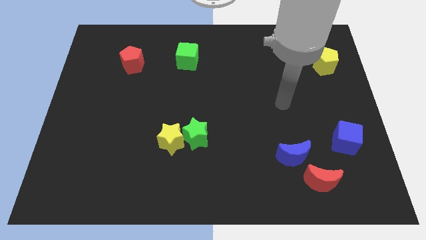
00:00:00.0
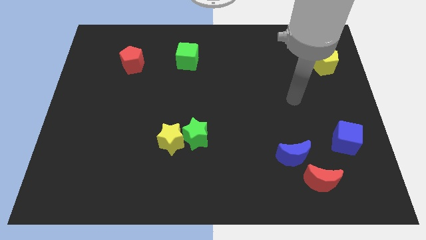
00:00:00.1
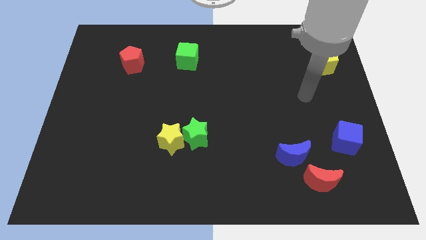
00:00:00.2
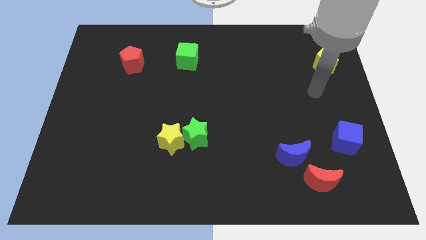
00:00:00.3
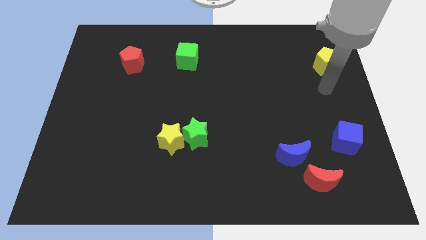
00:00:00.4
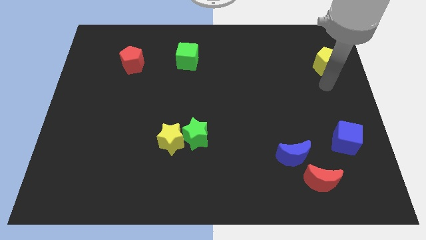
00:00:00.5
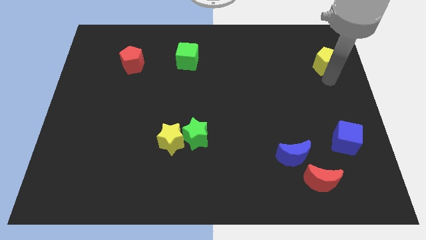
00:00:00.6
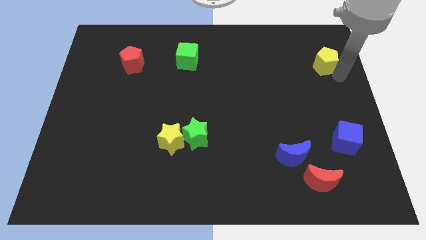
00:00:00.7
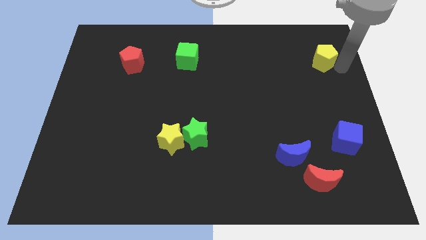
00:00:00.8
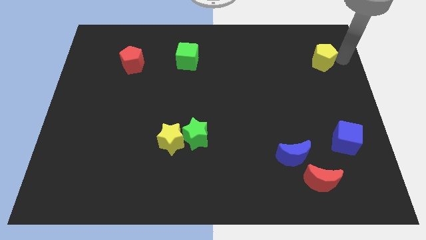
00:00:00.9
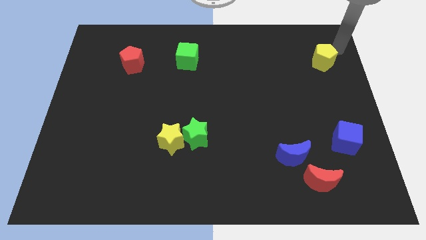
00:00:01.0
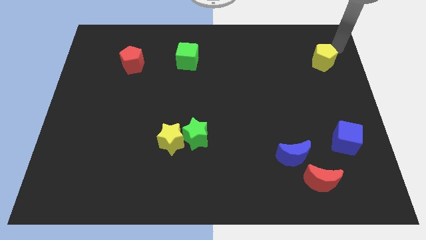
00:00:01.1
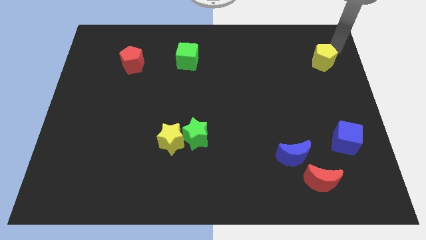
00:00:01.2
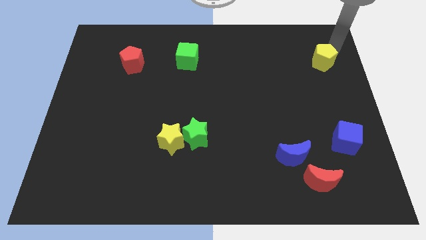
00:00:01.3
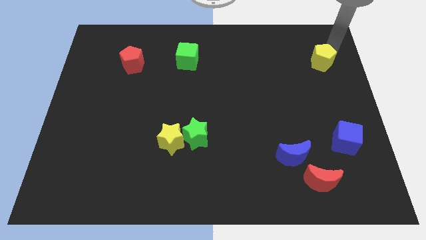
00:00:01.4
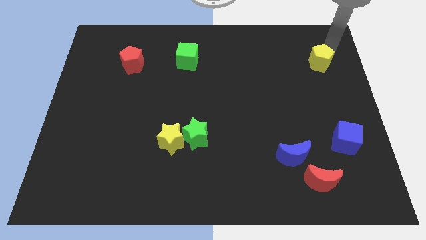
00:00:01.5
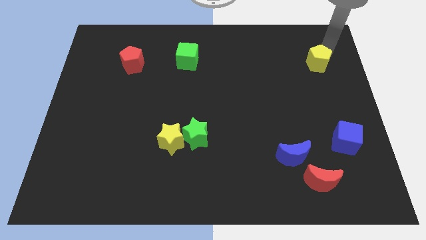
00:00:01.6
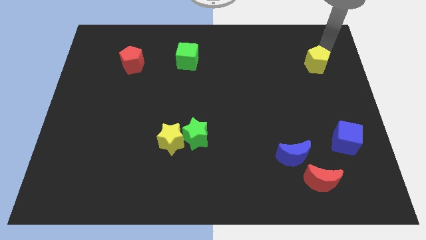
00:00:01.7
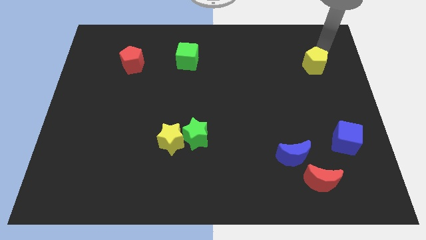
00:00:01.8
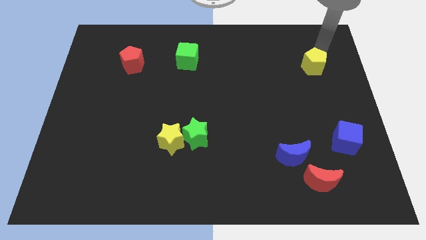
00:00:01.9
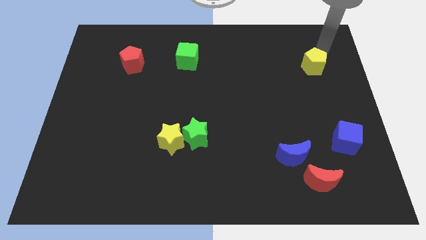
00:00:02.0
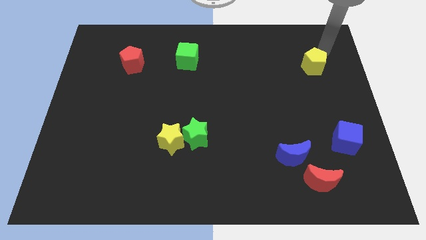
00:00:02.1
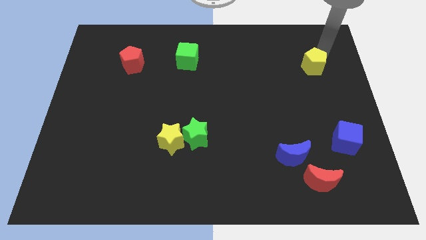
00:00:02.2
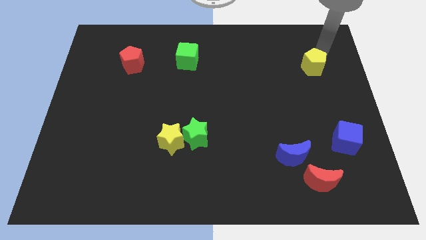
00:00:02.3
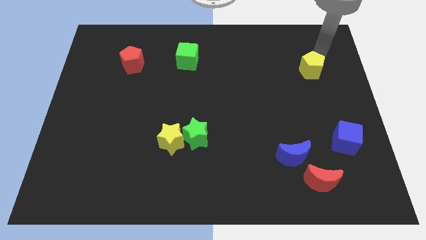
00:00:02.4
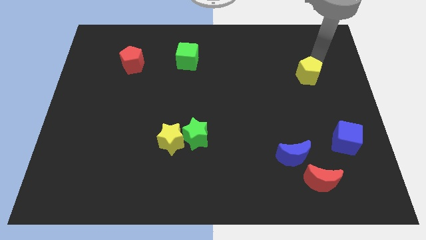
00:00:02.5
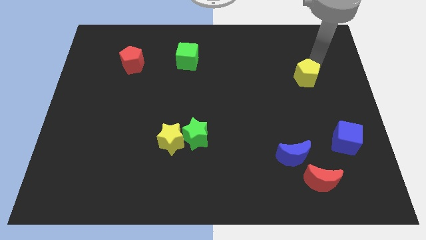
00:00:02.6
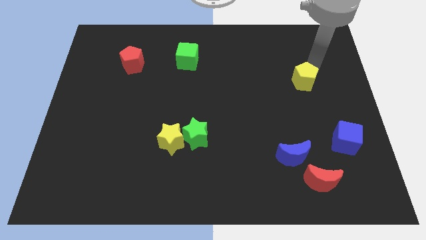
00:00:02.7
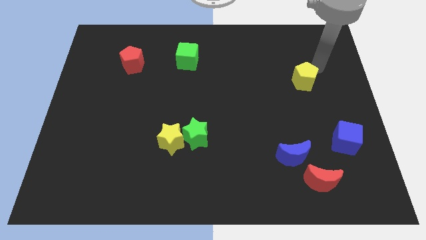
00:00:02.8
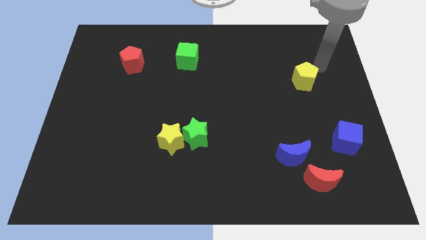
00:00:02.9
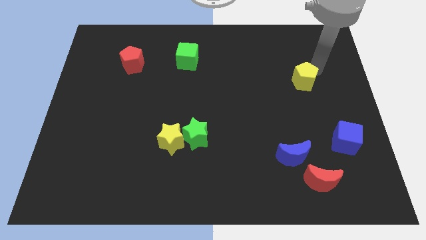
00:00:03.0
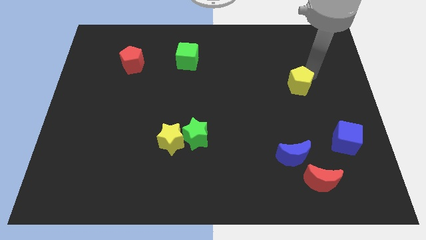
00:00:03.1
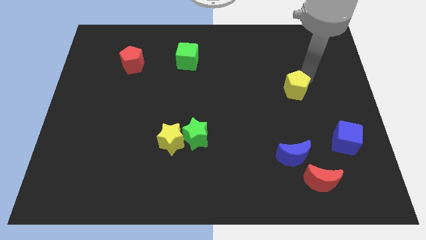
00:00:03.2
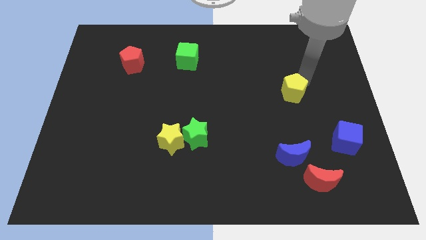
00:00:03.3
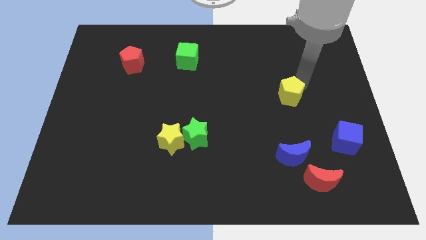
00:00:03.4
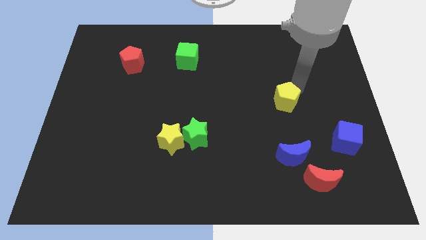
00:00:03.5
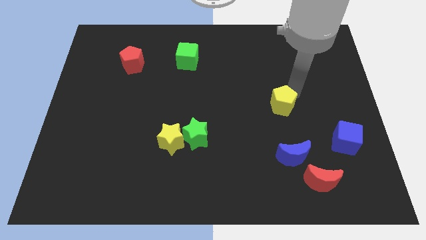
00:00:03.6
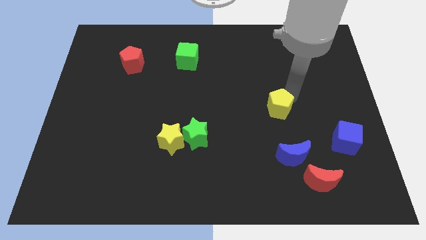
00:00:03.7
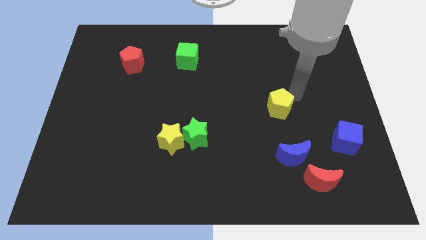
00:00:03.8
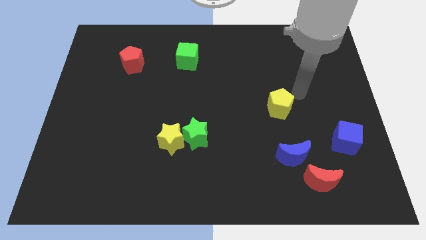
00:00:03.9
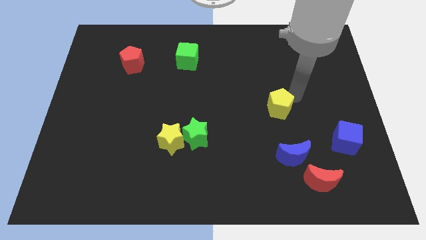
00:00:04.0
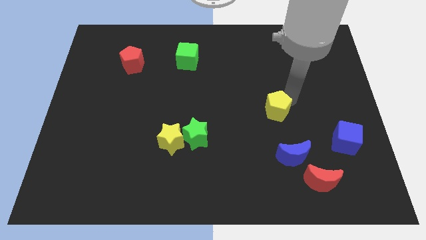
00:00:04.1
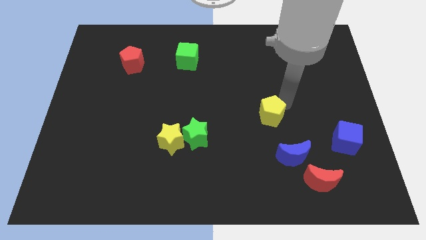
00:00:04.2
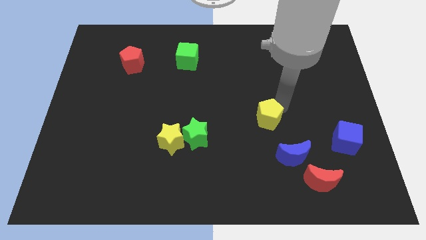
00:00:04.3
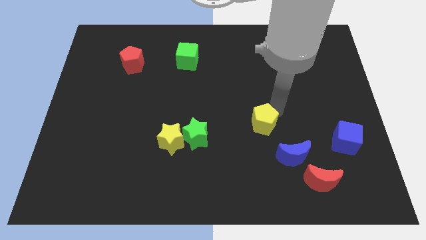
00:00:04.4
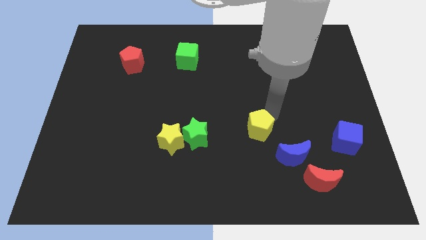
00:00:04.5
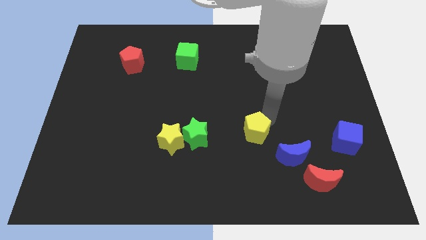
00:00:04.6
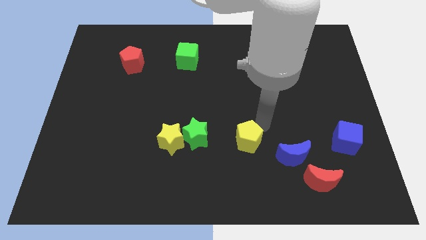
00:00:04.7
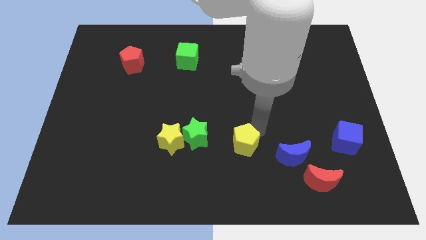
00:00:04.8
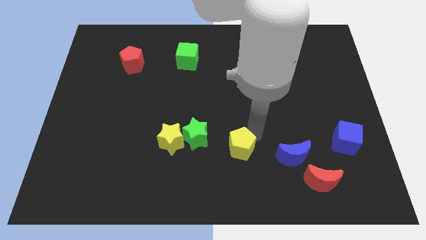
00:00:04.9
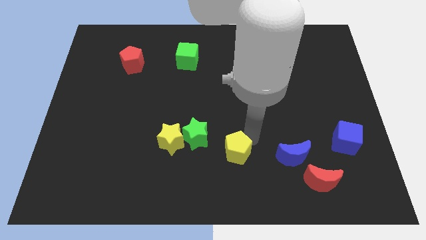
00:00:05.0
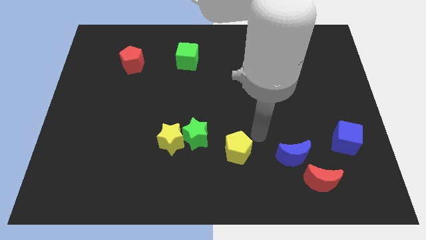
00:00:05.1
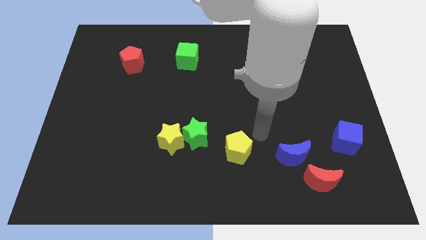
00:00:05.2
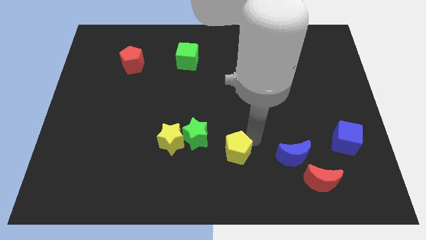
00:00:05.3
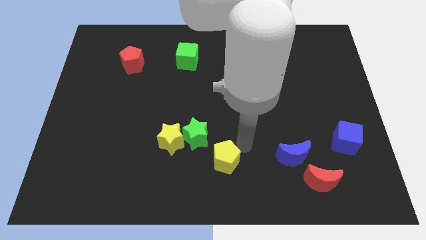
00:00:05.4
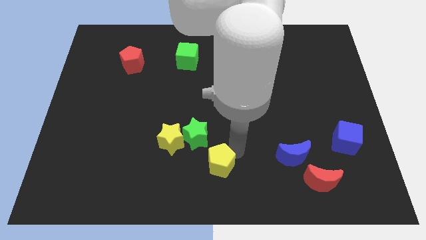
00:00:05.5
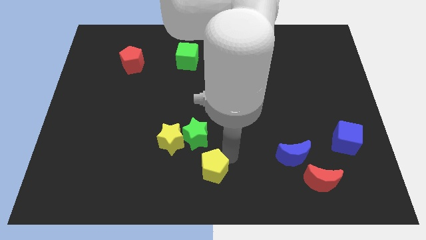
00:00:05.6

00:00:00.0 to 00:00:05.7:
push the yellow pentagon to the bottom side of the green star

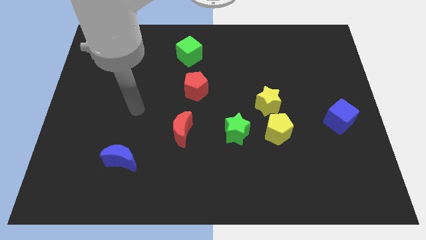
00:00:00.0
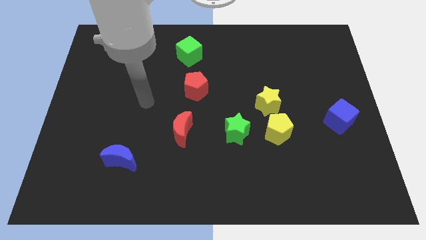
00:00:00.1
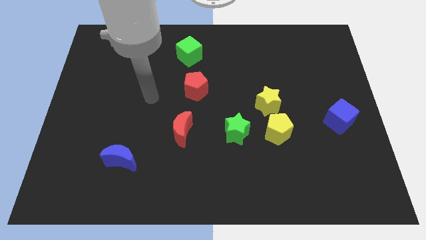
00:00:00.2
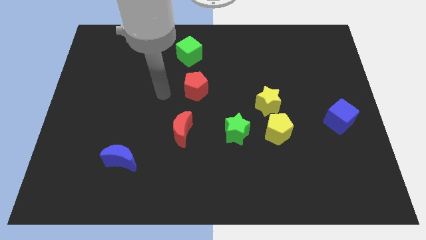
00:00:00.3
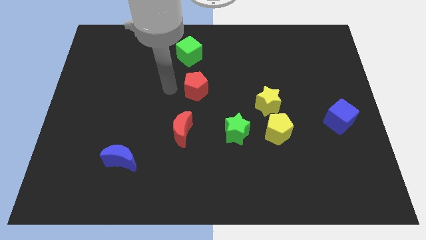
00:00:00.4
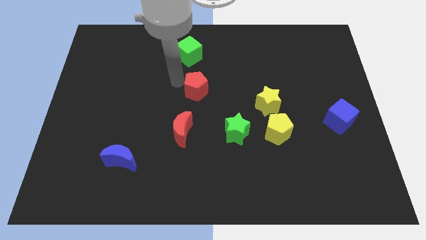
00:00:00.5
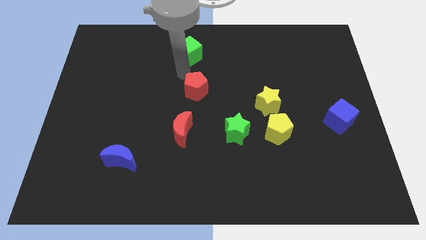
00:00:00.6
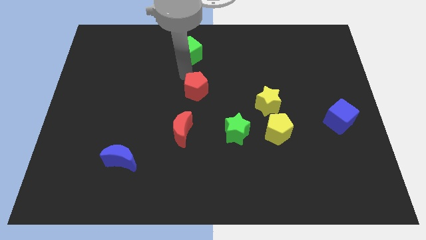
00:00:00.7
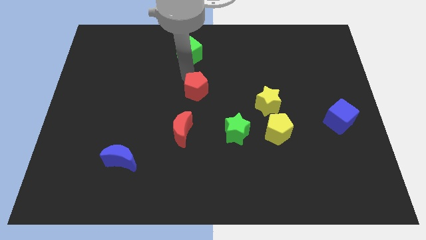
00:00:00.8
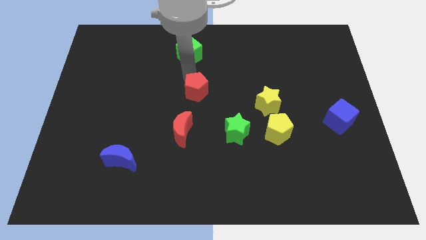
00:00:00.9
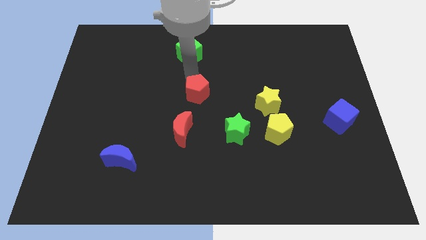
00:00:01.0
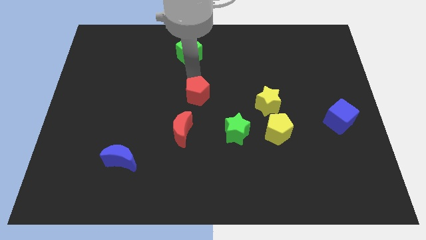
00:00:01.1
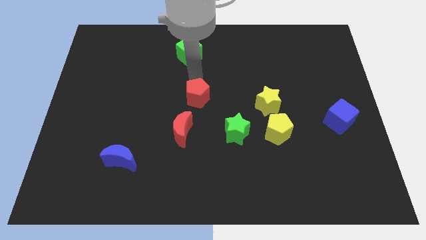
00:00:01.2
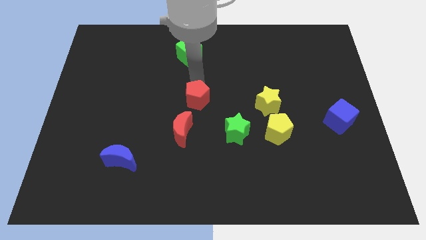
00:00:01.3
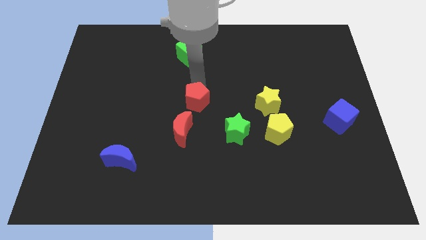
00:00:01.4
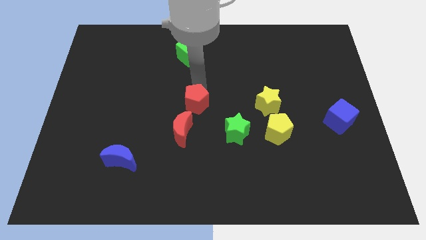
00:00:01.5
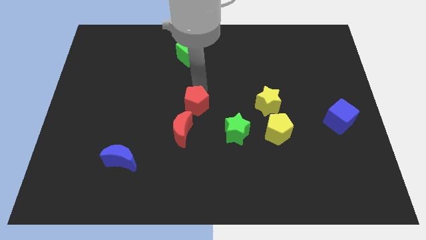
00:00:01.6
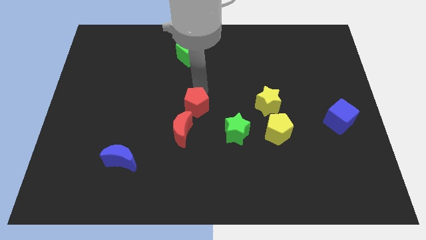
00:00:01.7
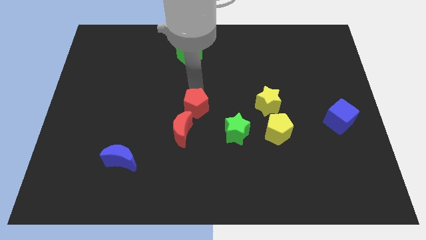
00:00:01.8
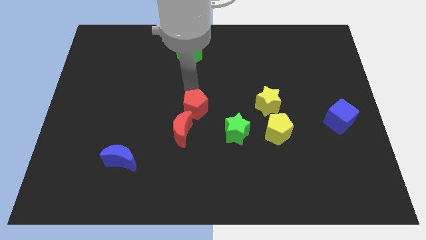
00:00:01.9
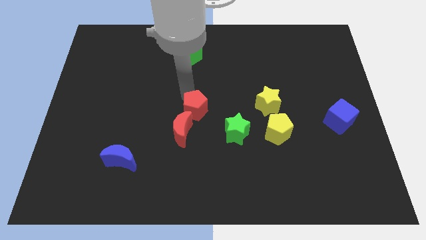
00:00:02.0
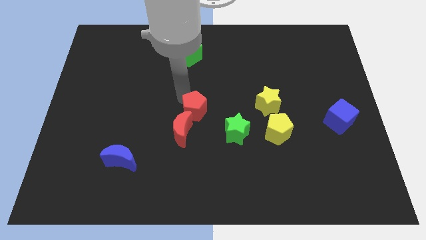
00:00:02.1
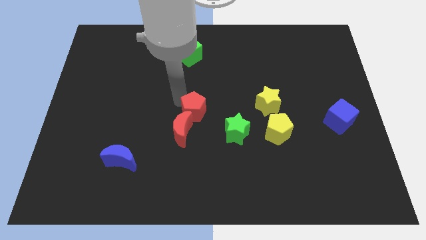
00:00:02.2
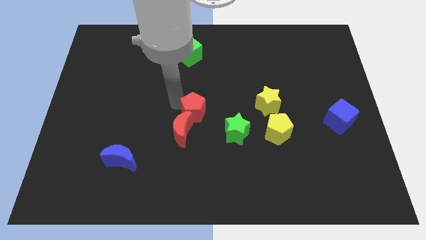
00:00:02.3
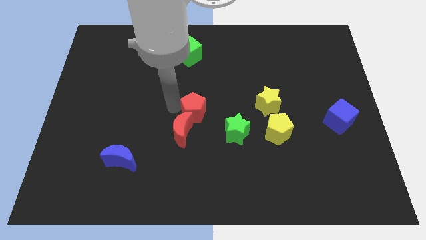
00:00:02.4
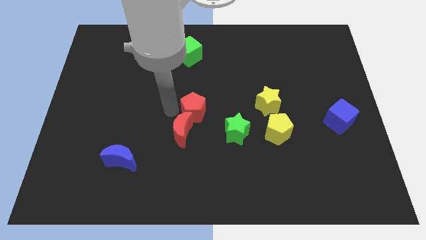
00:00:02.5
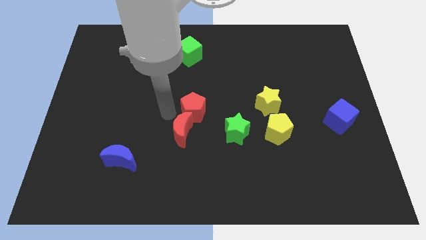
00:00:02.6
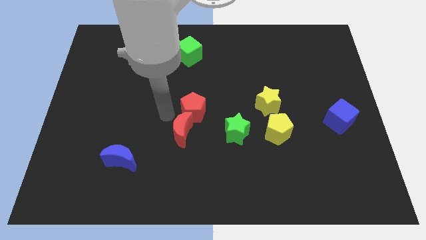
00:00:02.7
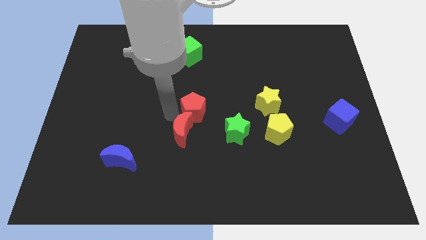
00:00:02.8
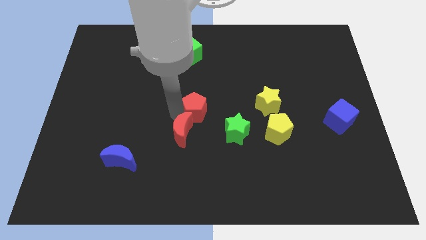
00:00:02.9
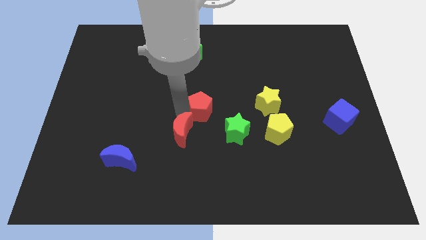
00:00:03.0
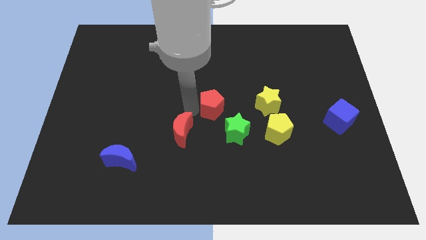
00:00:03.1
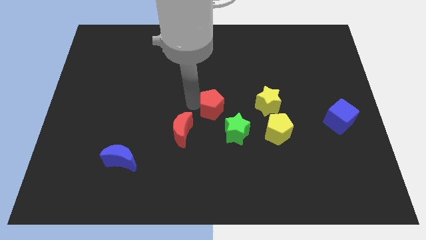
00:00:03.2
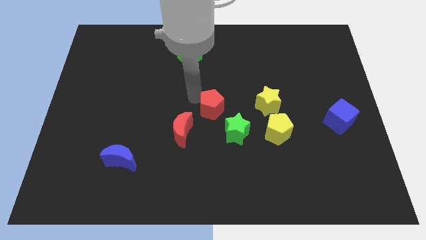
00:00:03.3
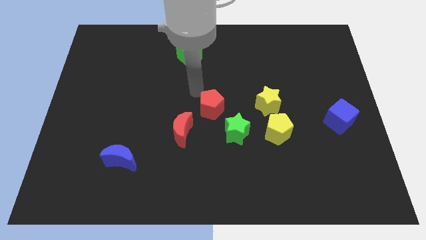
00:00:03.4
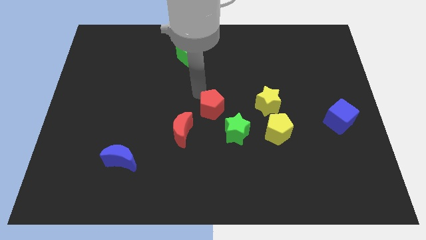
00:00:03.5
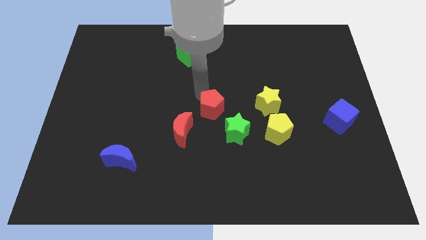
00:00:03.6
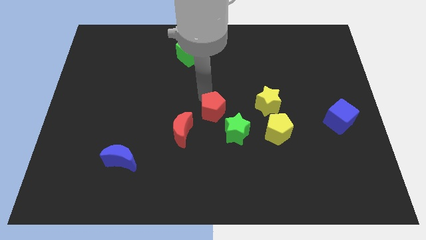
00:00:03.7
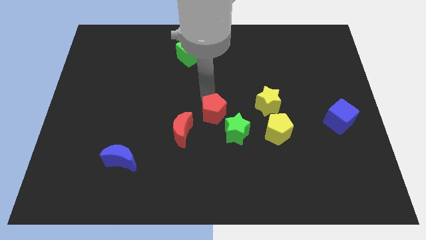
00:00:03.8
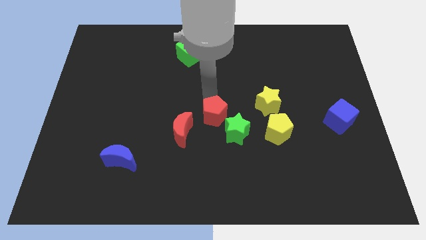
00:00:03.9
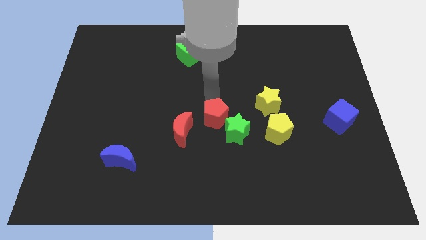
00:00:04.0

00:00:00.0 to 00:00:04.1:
put the red pentagon to the left of the yellow pentagon
